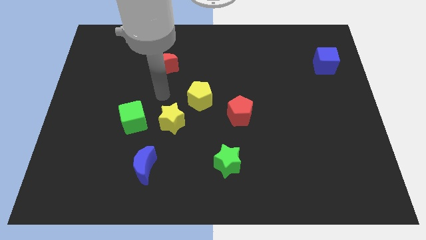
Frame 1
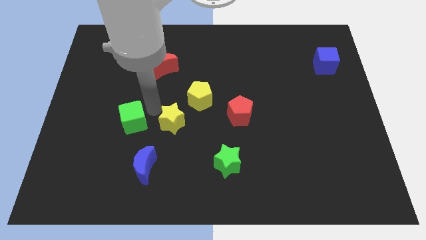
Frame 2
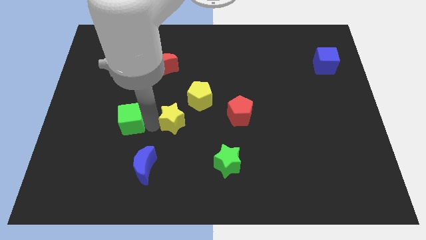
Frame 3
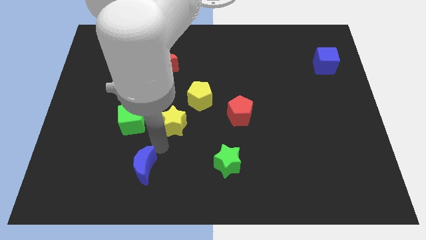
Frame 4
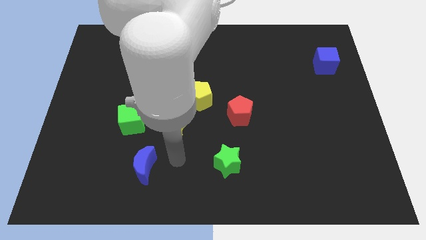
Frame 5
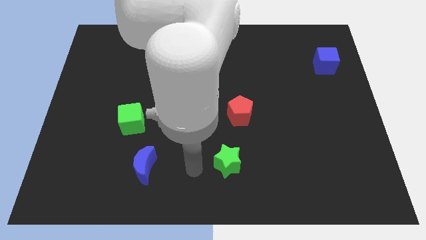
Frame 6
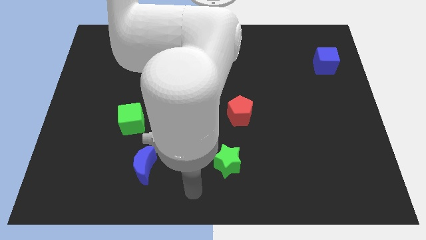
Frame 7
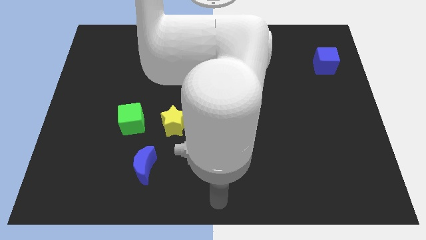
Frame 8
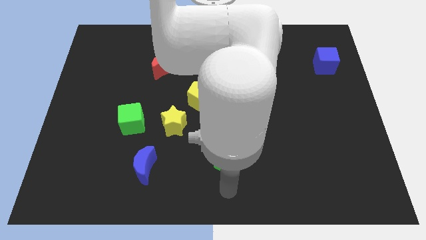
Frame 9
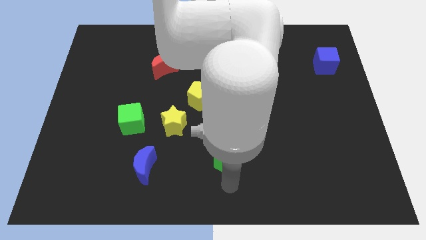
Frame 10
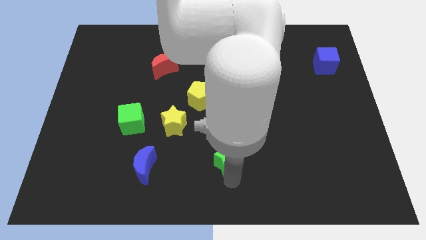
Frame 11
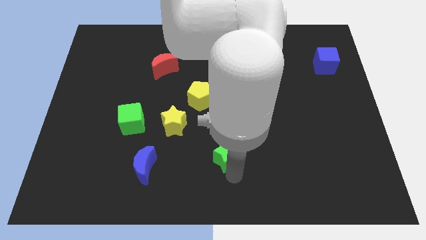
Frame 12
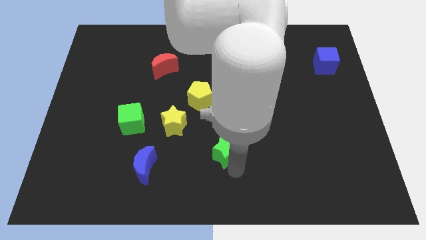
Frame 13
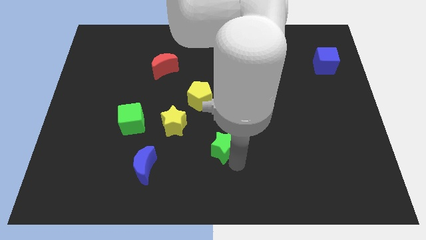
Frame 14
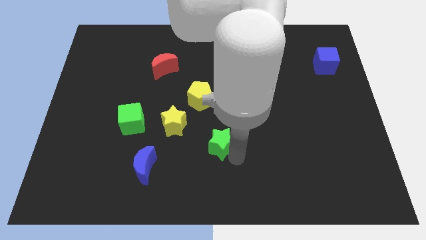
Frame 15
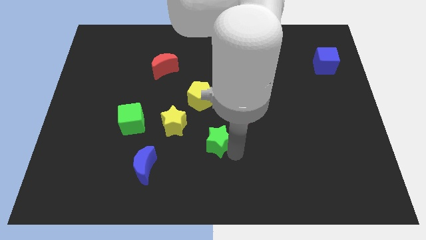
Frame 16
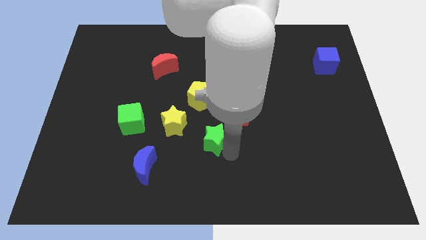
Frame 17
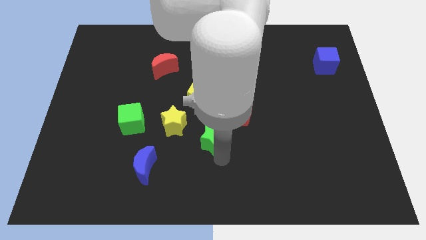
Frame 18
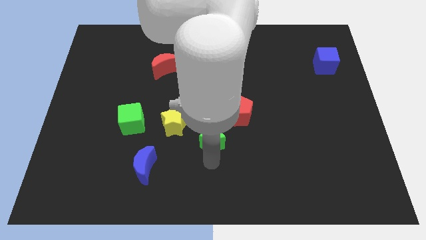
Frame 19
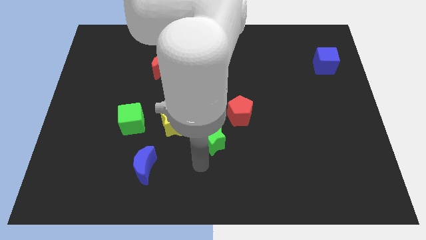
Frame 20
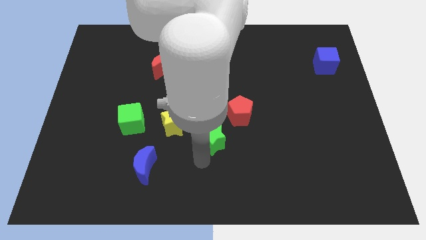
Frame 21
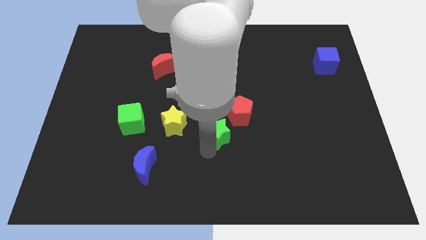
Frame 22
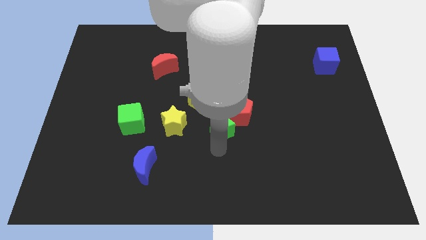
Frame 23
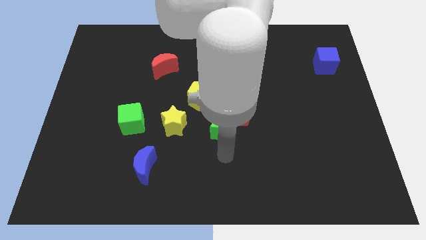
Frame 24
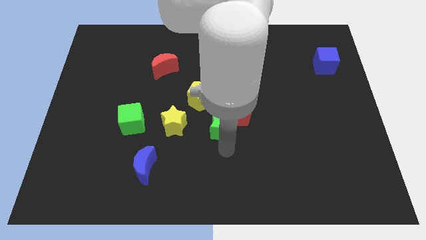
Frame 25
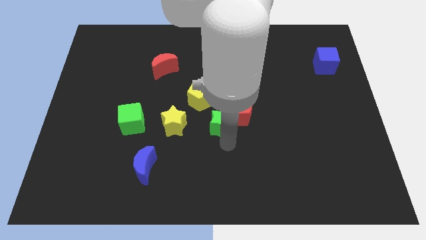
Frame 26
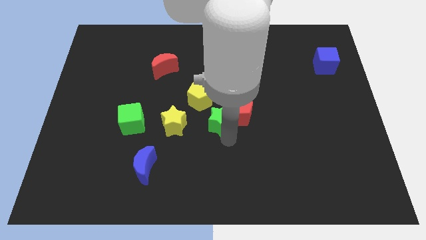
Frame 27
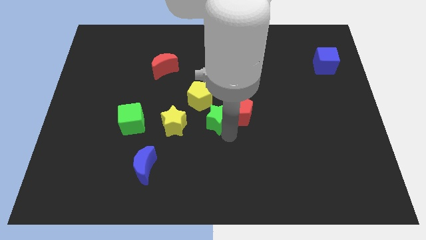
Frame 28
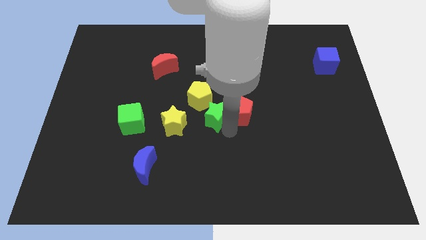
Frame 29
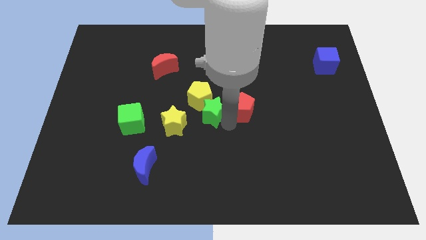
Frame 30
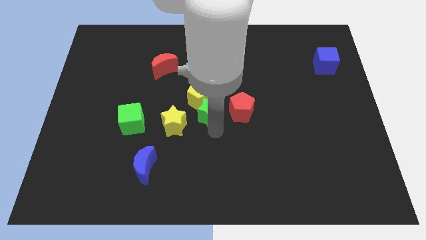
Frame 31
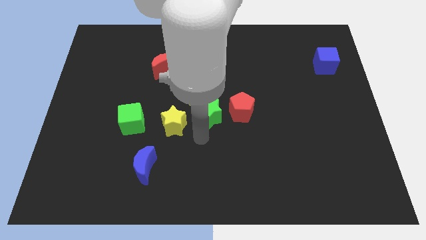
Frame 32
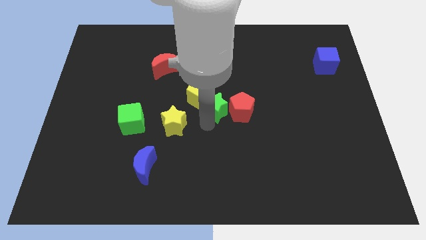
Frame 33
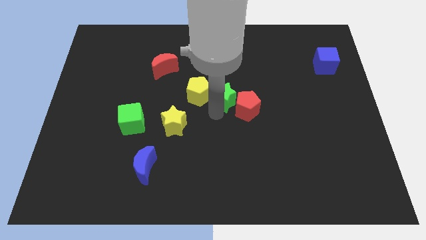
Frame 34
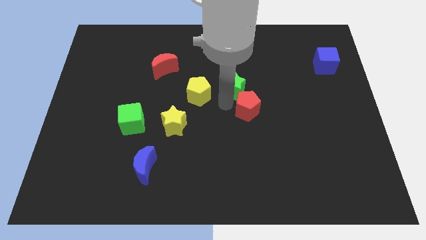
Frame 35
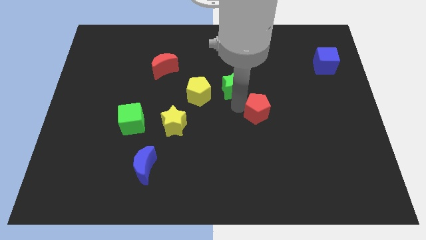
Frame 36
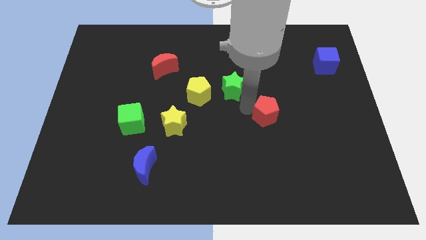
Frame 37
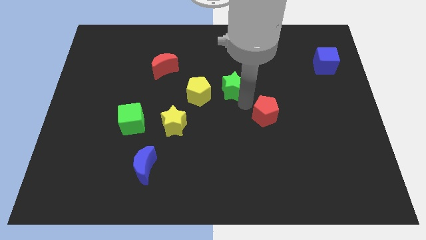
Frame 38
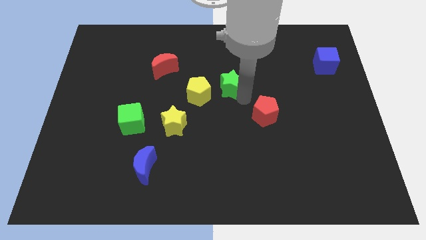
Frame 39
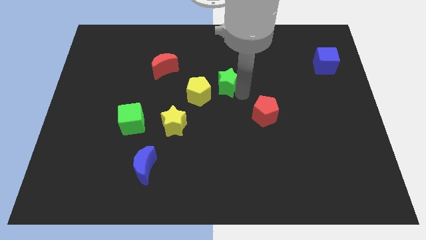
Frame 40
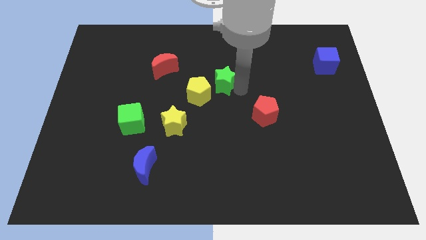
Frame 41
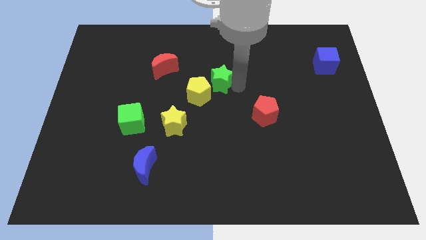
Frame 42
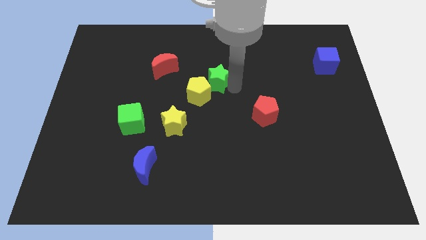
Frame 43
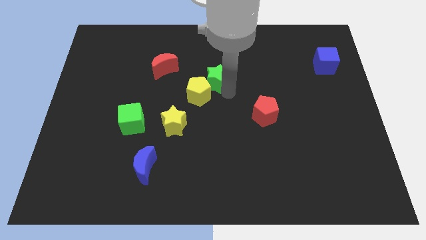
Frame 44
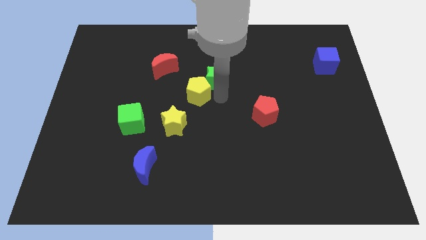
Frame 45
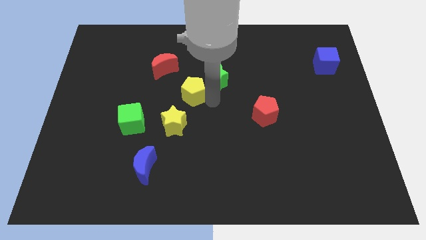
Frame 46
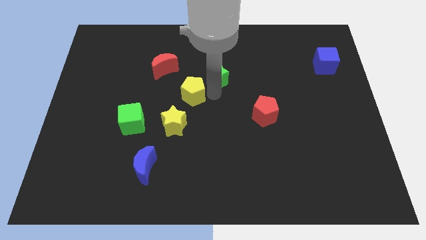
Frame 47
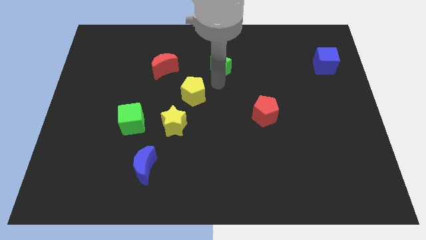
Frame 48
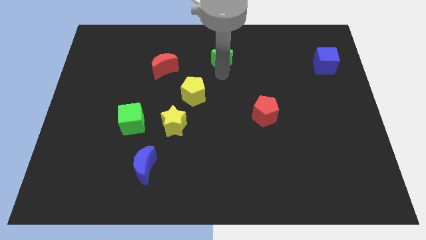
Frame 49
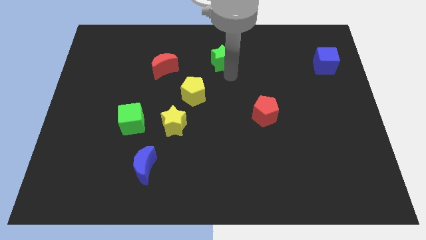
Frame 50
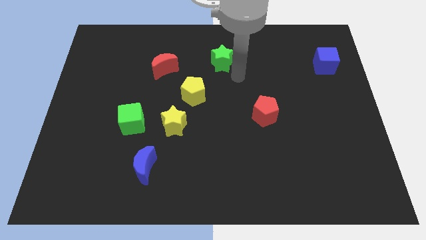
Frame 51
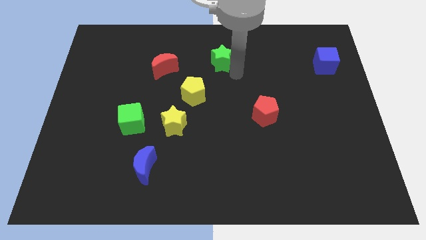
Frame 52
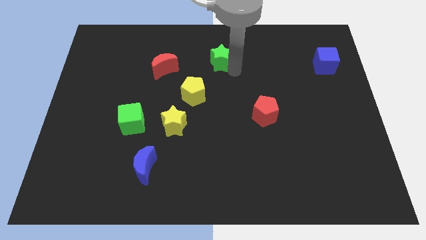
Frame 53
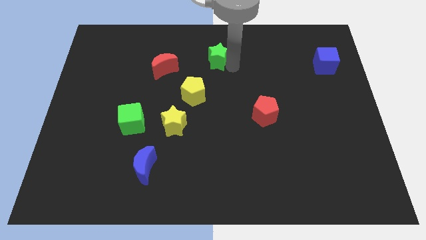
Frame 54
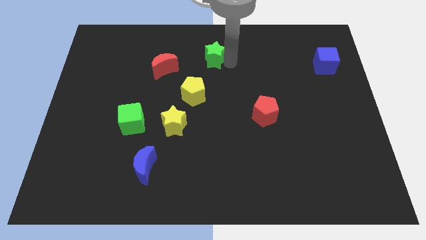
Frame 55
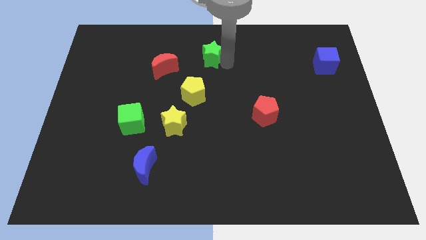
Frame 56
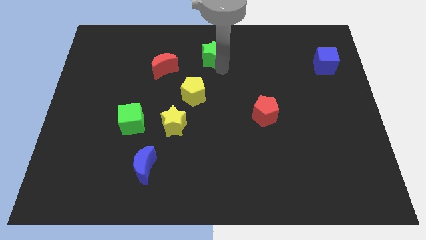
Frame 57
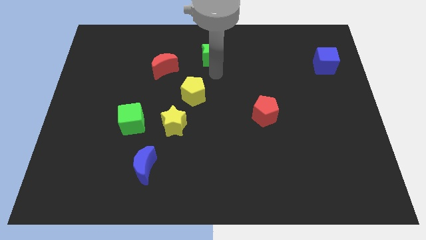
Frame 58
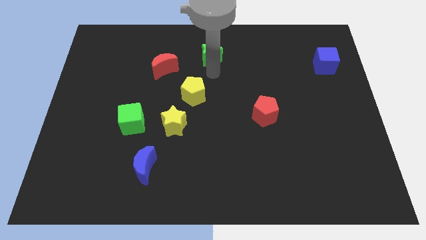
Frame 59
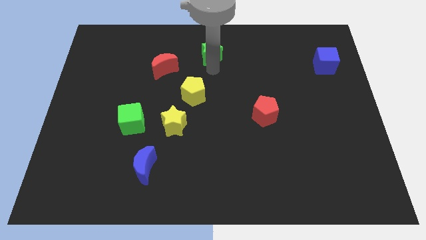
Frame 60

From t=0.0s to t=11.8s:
slide the green star to the towards your base
